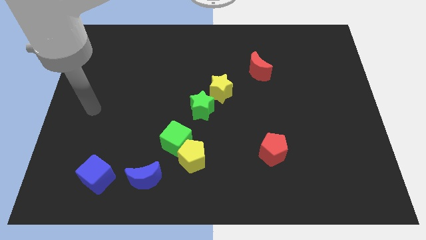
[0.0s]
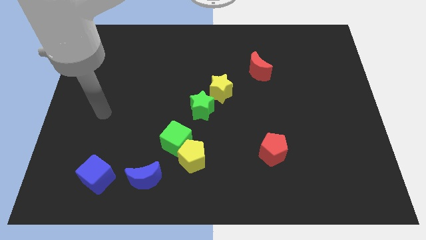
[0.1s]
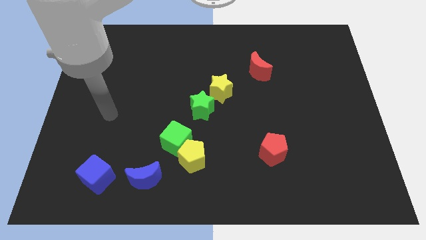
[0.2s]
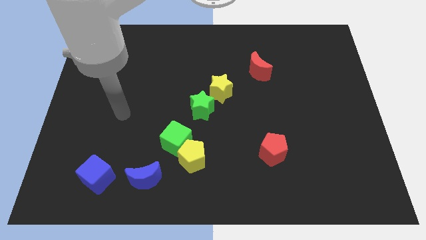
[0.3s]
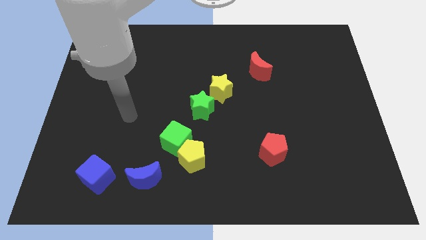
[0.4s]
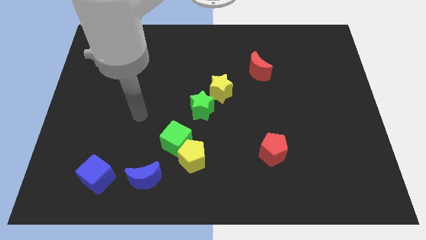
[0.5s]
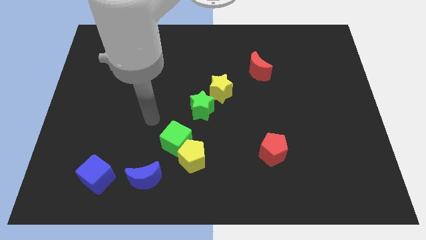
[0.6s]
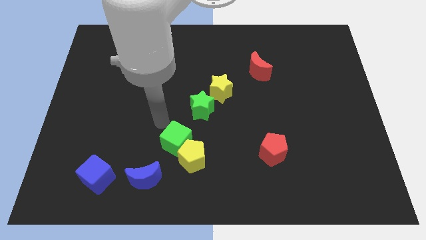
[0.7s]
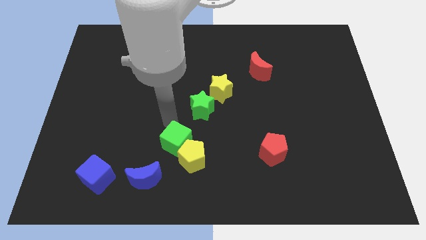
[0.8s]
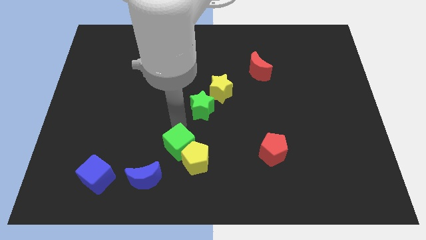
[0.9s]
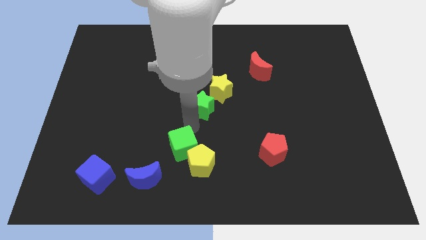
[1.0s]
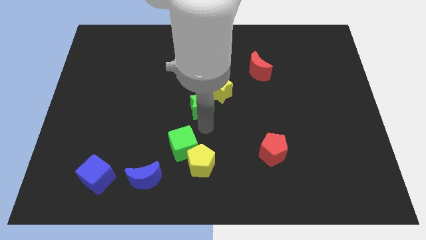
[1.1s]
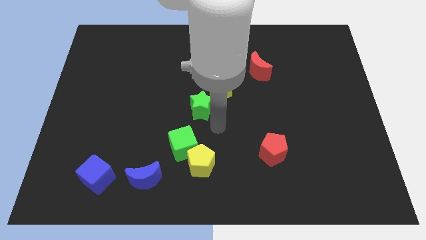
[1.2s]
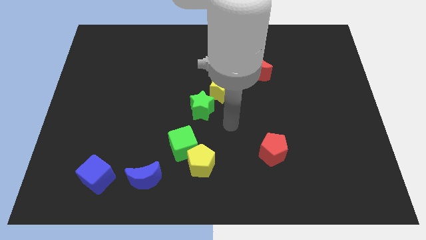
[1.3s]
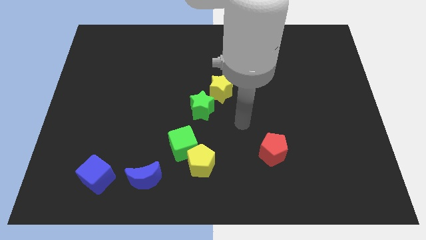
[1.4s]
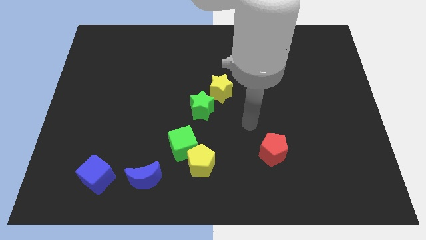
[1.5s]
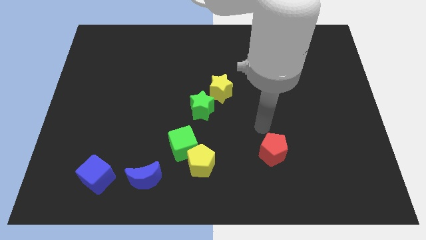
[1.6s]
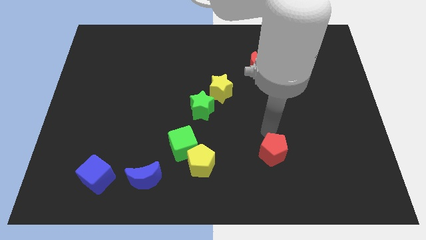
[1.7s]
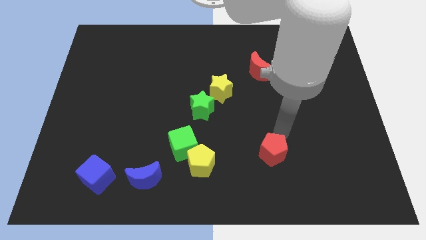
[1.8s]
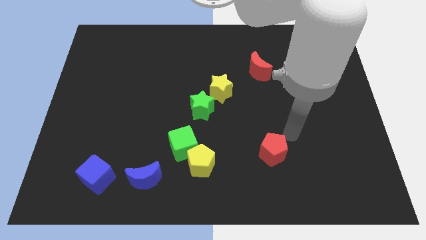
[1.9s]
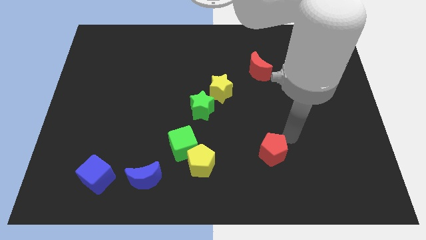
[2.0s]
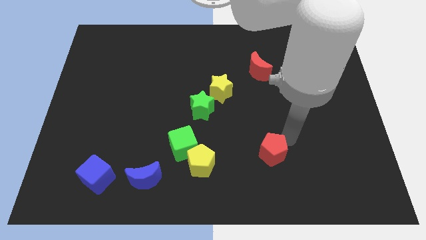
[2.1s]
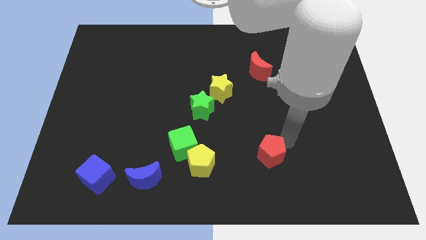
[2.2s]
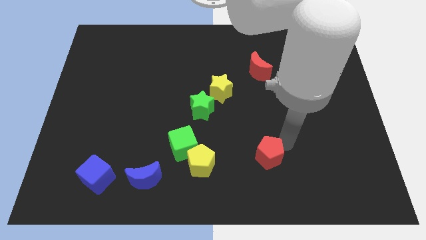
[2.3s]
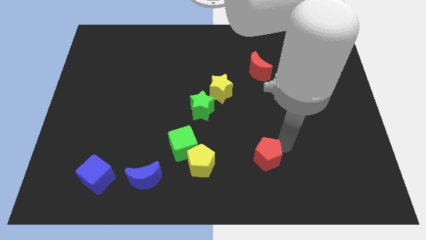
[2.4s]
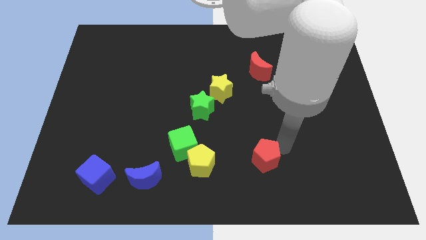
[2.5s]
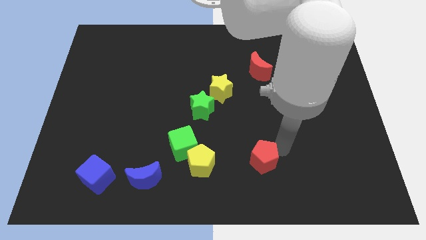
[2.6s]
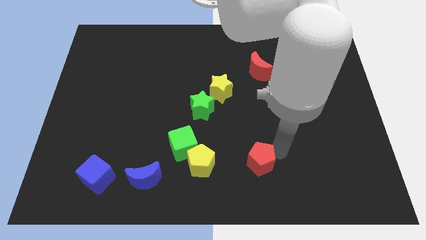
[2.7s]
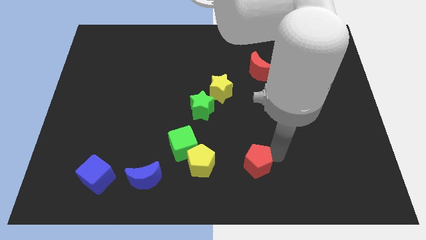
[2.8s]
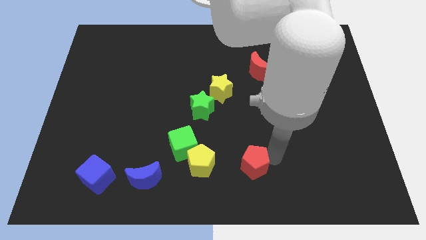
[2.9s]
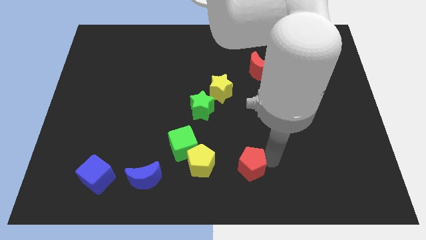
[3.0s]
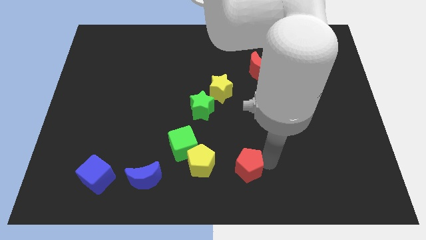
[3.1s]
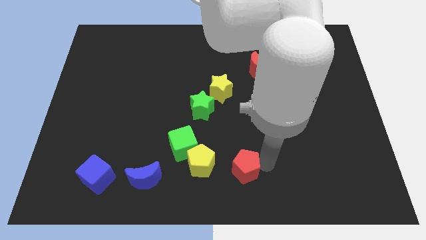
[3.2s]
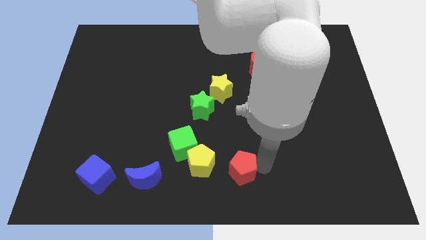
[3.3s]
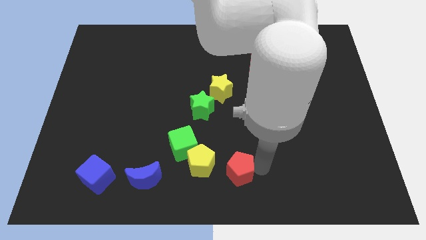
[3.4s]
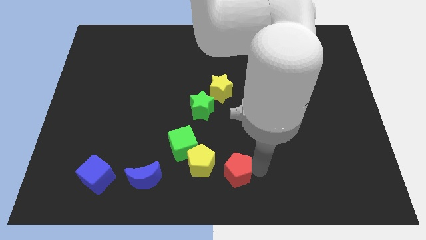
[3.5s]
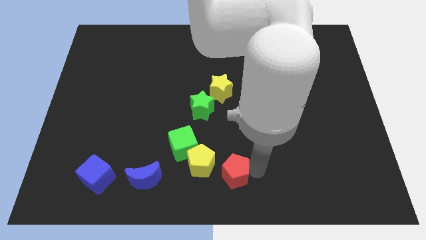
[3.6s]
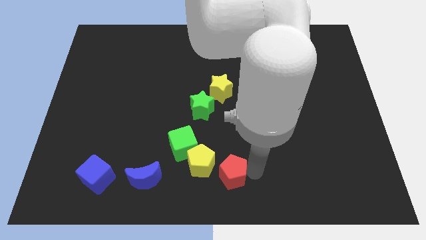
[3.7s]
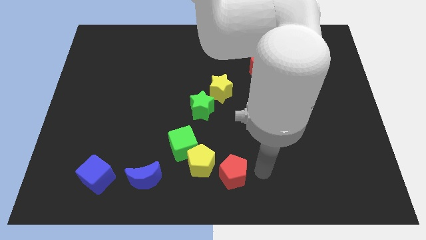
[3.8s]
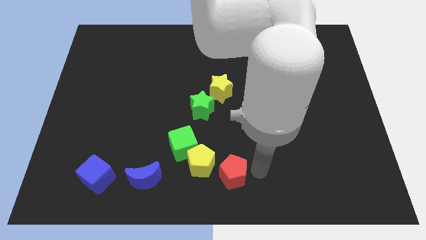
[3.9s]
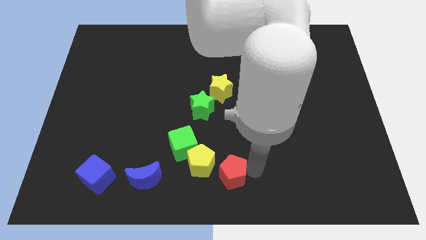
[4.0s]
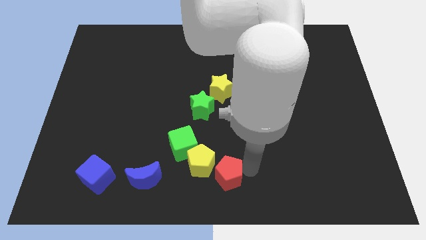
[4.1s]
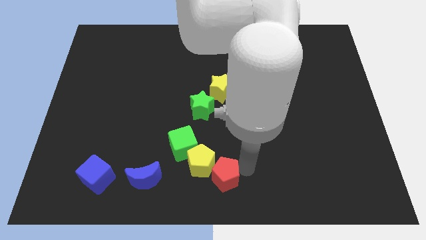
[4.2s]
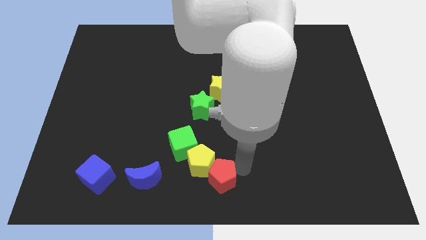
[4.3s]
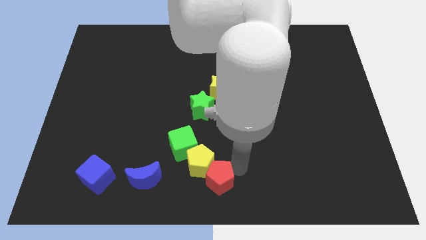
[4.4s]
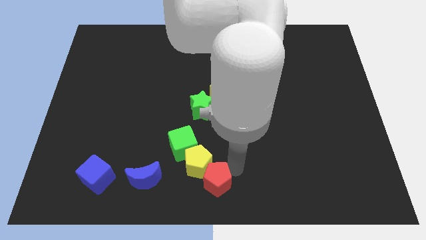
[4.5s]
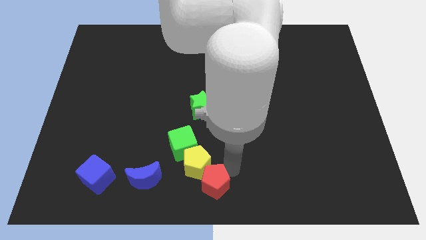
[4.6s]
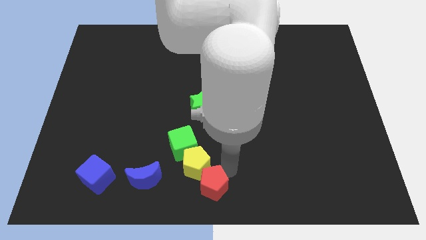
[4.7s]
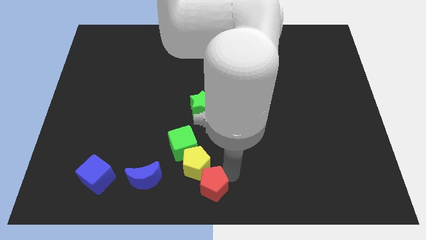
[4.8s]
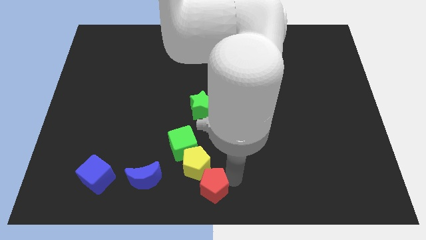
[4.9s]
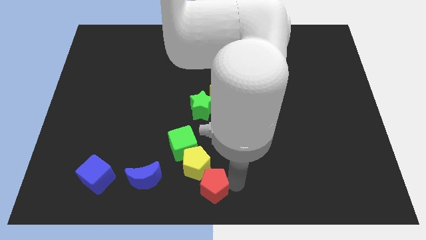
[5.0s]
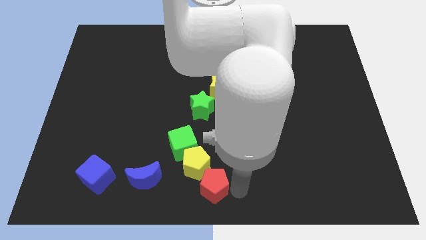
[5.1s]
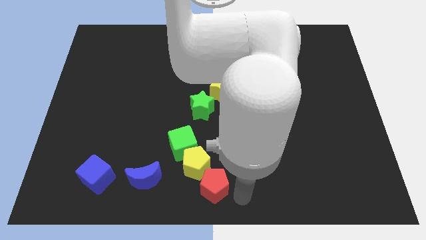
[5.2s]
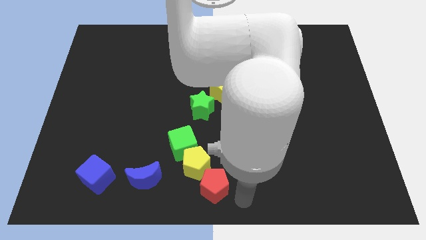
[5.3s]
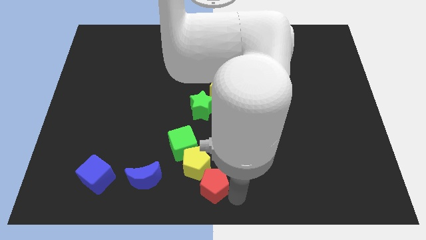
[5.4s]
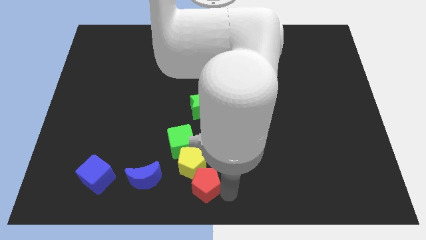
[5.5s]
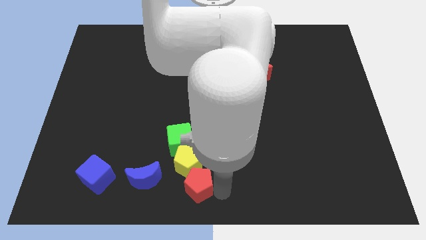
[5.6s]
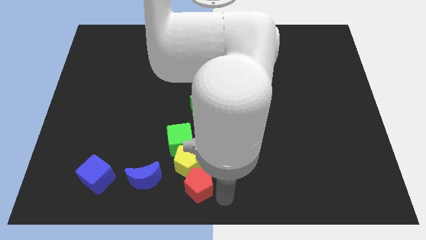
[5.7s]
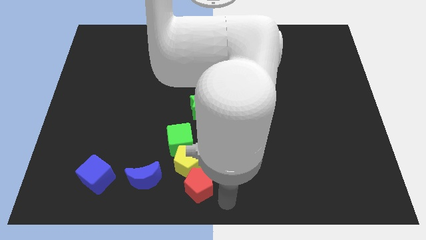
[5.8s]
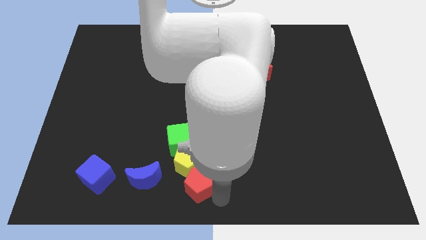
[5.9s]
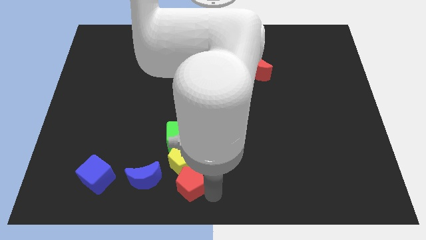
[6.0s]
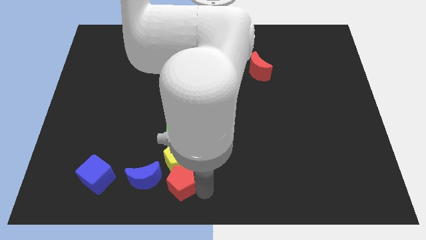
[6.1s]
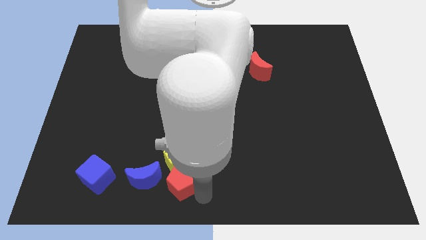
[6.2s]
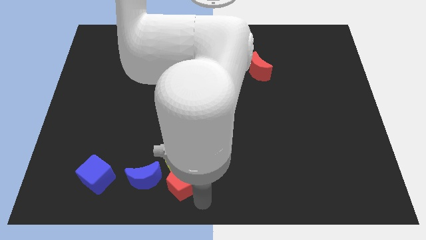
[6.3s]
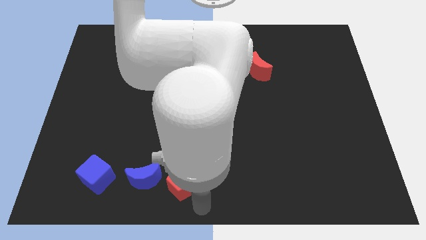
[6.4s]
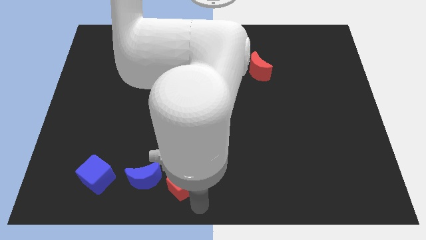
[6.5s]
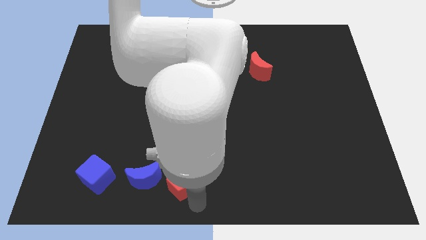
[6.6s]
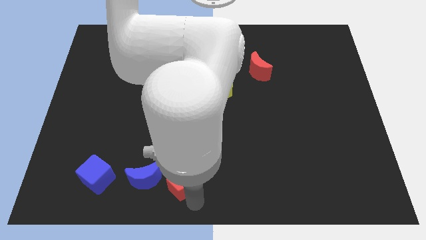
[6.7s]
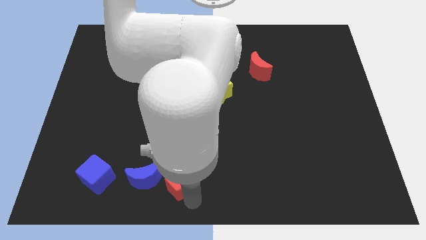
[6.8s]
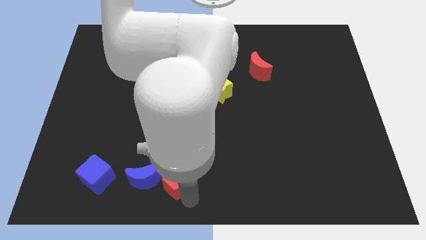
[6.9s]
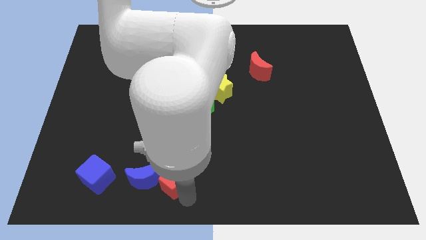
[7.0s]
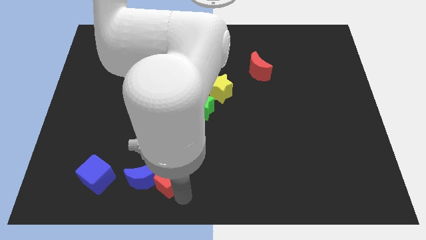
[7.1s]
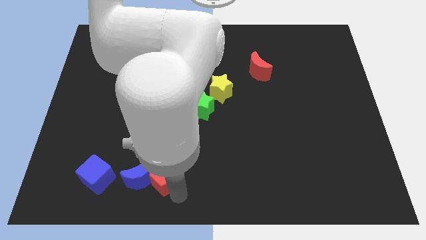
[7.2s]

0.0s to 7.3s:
move the red pentagon to the left

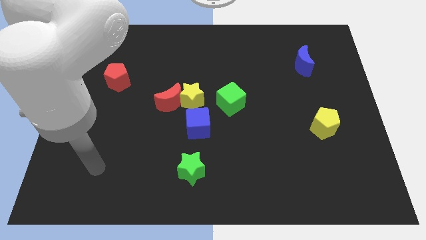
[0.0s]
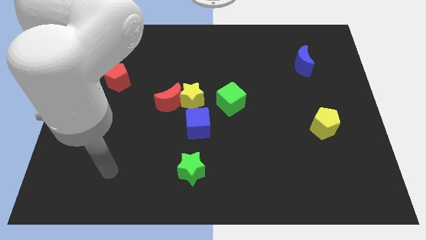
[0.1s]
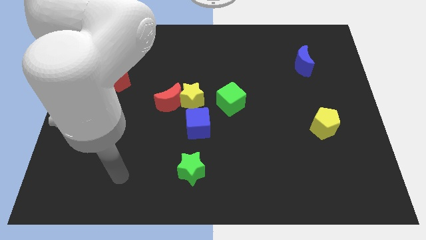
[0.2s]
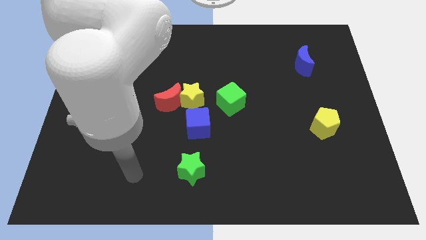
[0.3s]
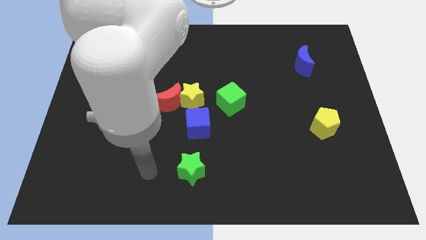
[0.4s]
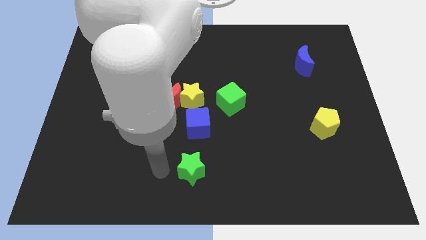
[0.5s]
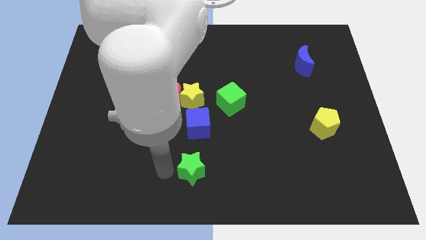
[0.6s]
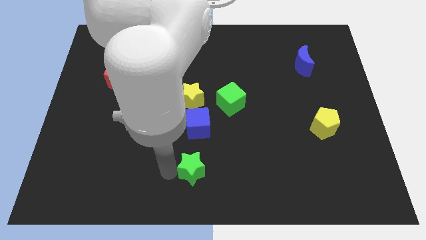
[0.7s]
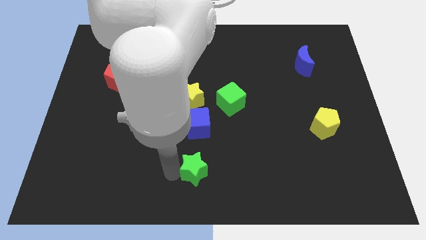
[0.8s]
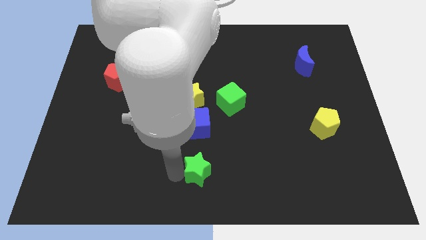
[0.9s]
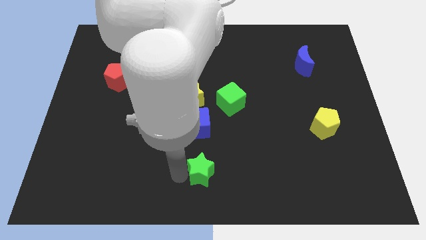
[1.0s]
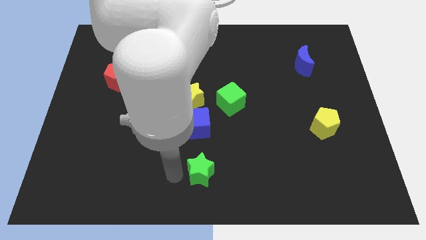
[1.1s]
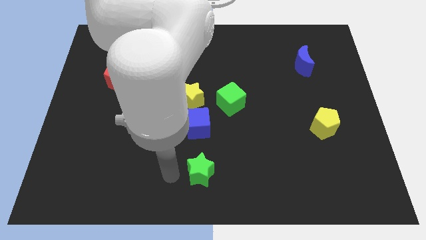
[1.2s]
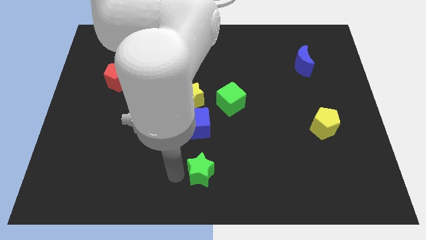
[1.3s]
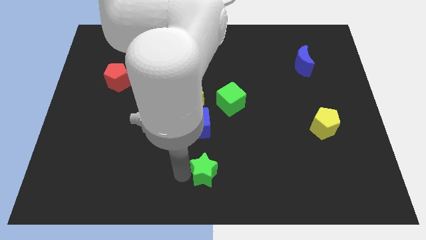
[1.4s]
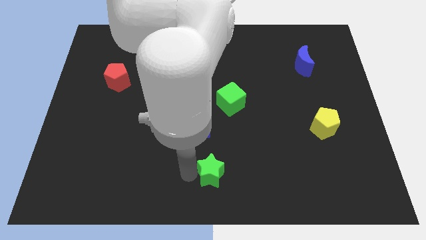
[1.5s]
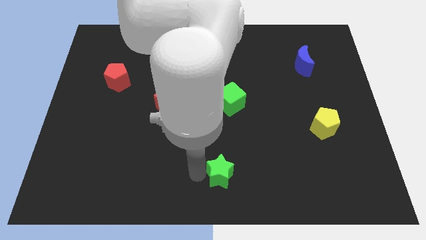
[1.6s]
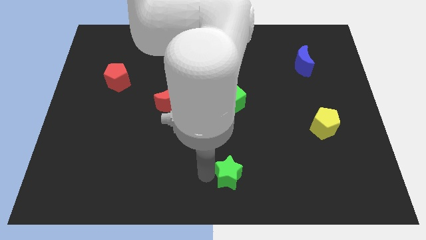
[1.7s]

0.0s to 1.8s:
slide the green star right somewhat
